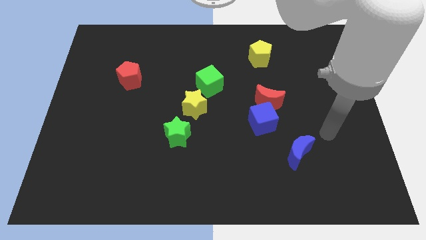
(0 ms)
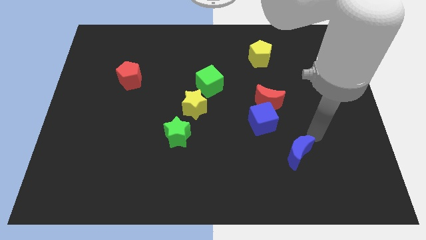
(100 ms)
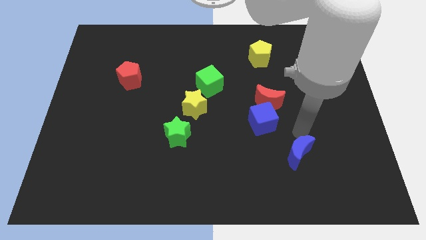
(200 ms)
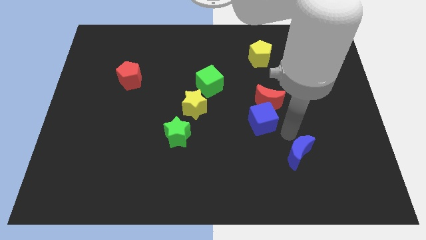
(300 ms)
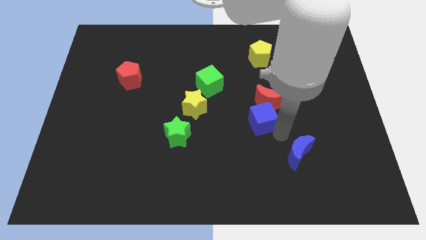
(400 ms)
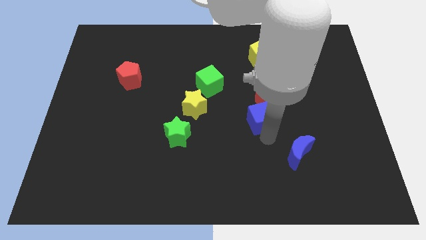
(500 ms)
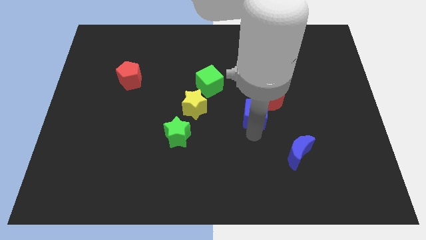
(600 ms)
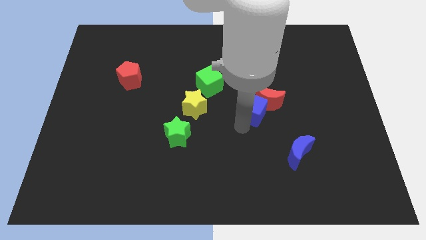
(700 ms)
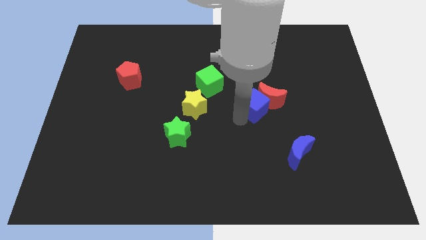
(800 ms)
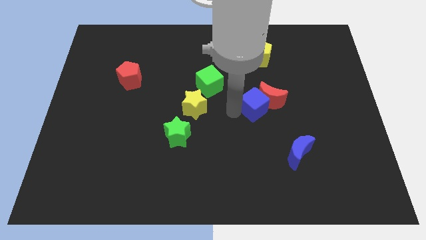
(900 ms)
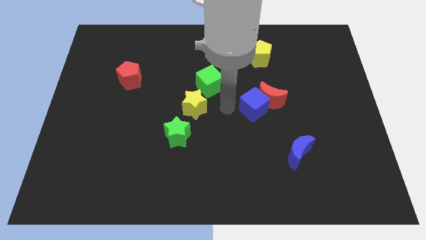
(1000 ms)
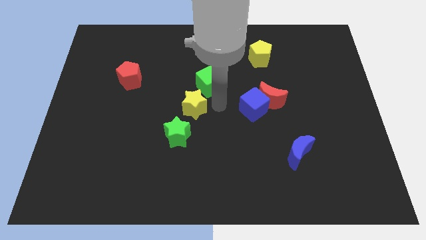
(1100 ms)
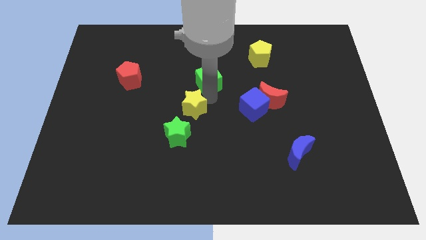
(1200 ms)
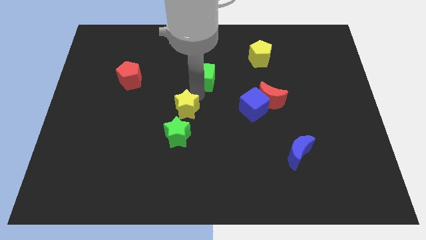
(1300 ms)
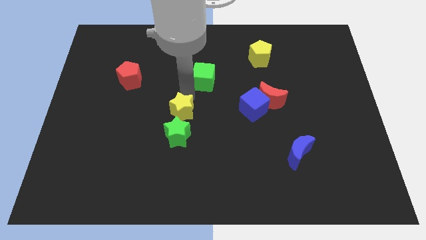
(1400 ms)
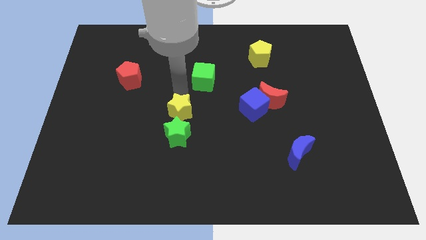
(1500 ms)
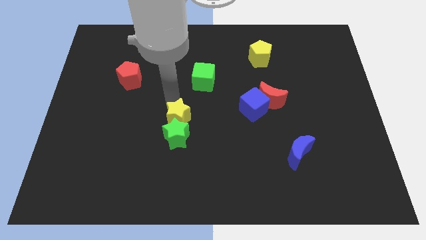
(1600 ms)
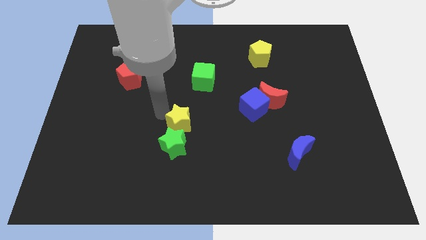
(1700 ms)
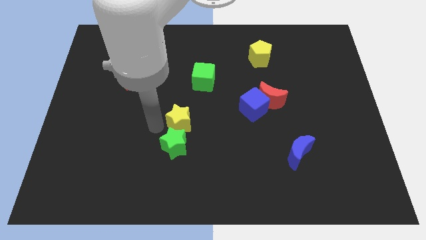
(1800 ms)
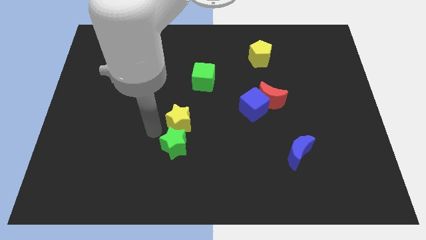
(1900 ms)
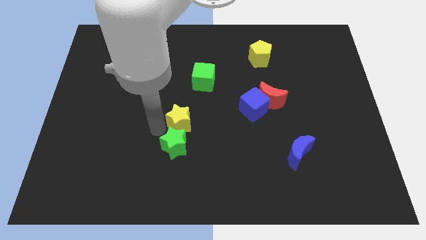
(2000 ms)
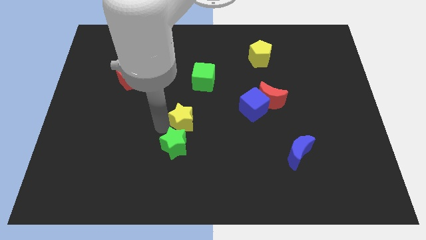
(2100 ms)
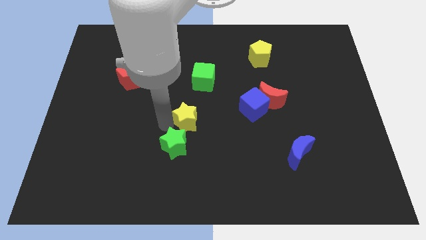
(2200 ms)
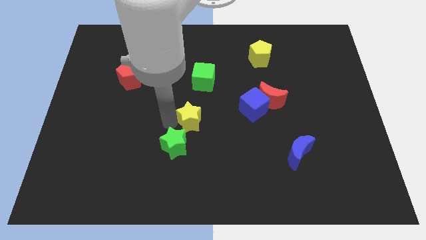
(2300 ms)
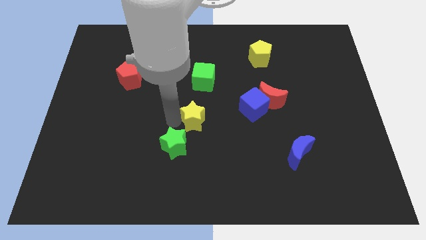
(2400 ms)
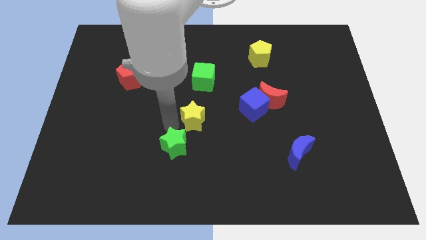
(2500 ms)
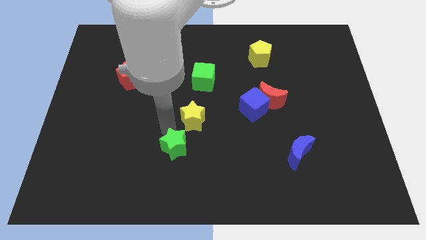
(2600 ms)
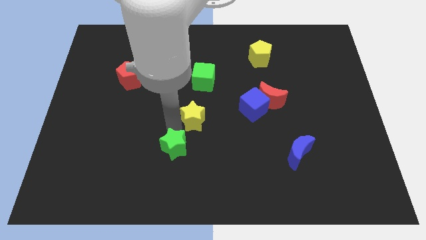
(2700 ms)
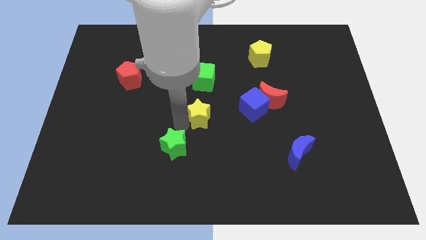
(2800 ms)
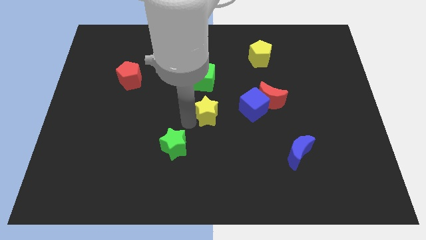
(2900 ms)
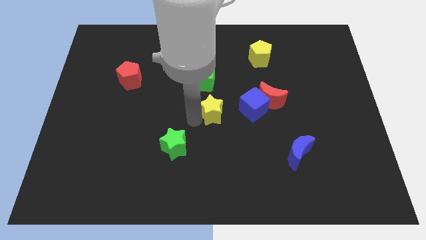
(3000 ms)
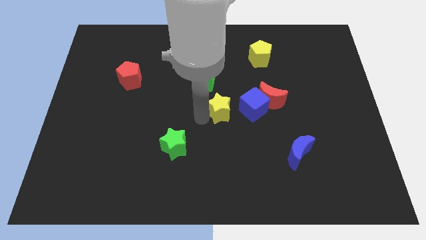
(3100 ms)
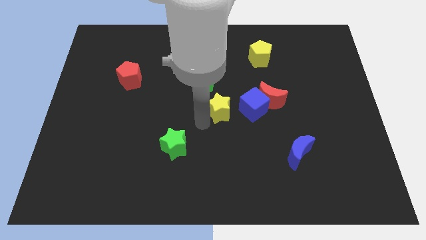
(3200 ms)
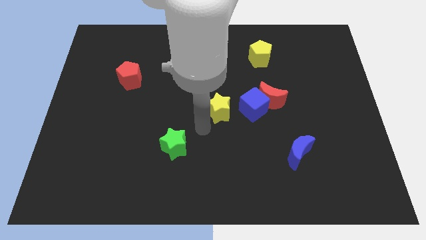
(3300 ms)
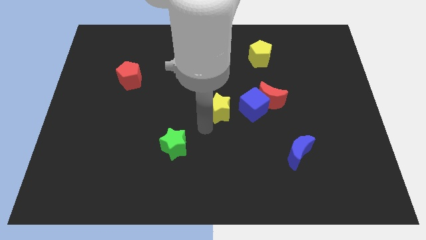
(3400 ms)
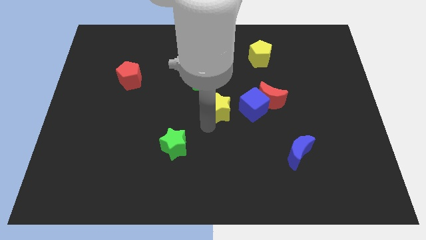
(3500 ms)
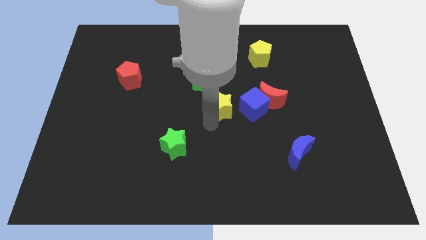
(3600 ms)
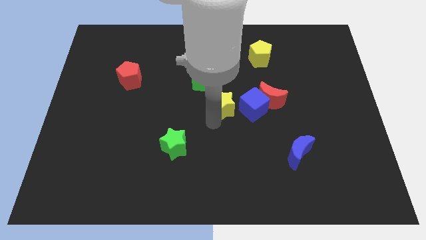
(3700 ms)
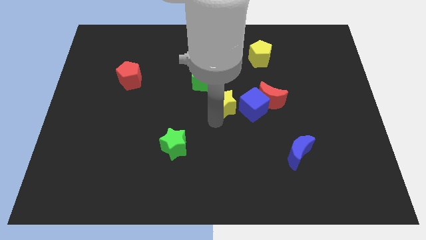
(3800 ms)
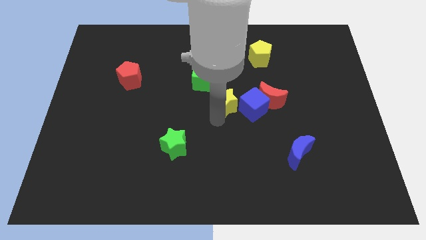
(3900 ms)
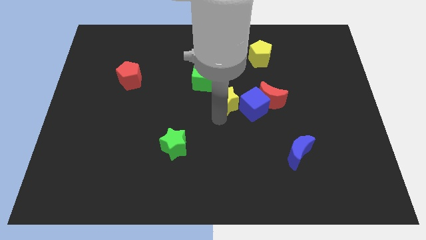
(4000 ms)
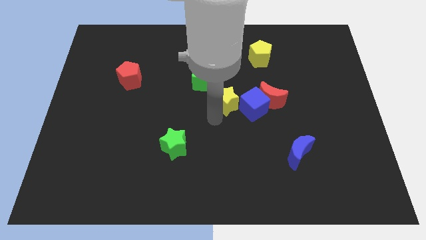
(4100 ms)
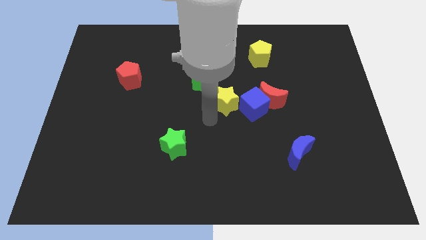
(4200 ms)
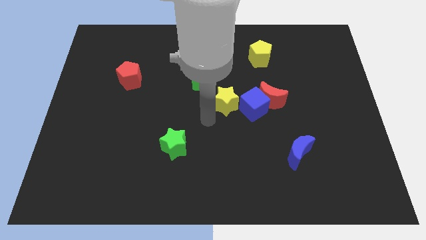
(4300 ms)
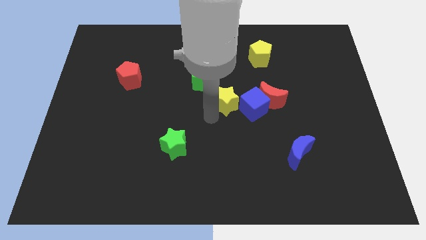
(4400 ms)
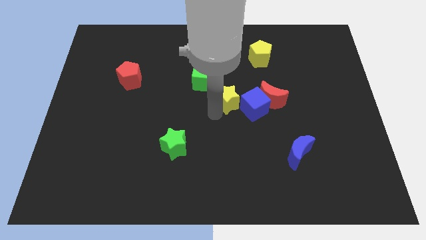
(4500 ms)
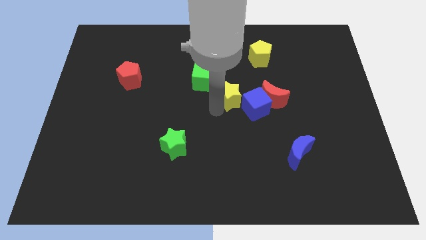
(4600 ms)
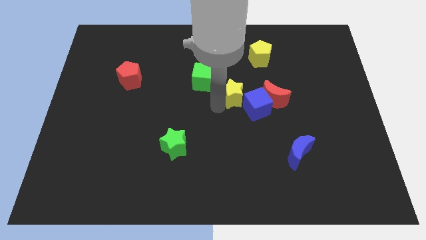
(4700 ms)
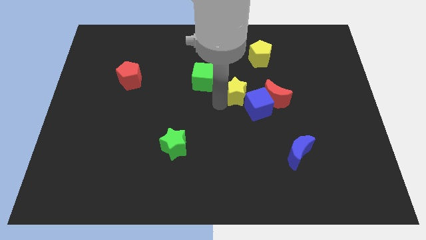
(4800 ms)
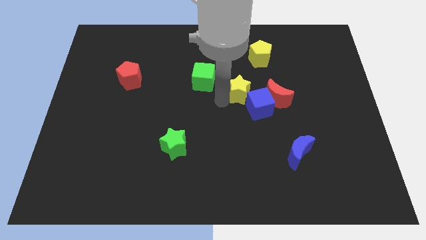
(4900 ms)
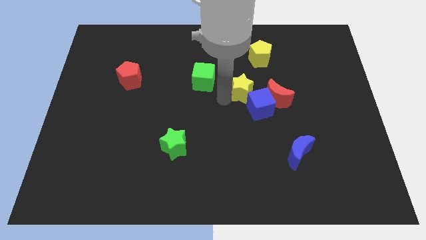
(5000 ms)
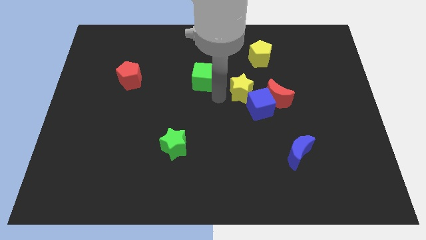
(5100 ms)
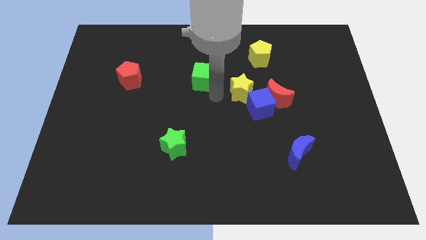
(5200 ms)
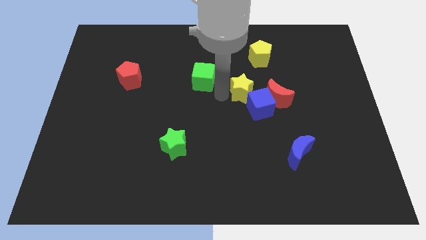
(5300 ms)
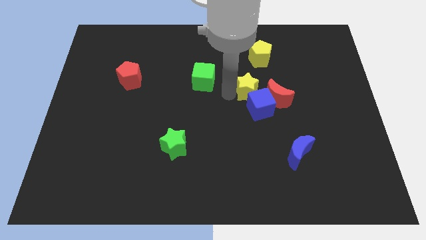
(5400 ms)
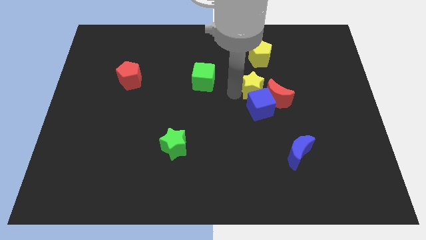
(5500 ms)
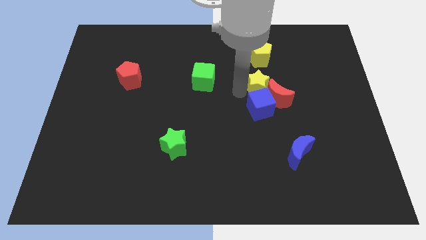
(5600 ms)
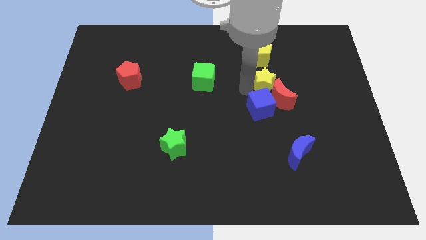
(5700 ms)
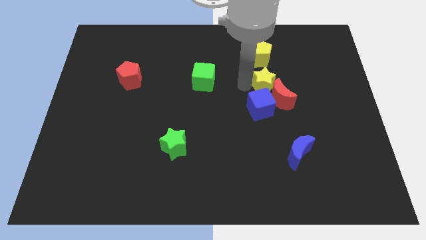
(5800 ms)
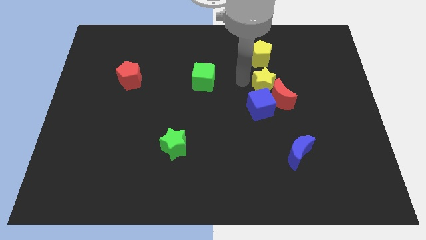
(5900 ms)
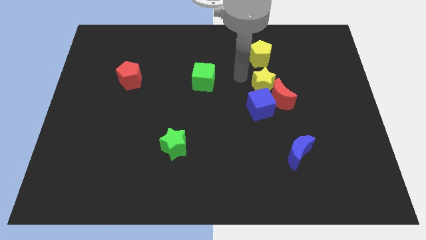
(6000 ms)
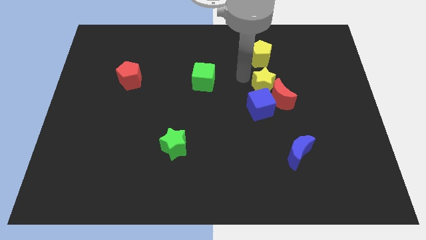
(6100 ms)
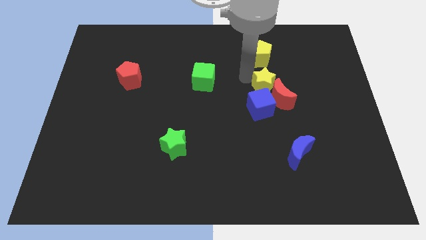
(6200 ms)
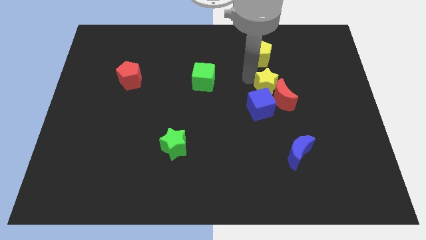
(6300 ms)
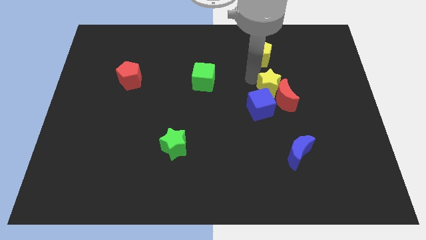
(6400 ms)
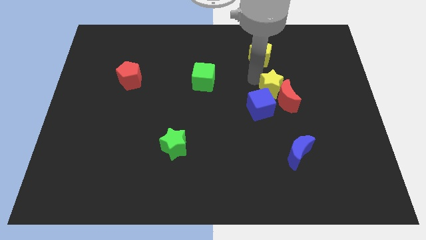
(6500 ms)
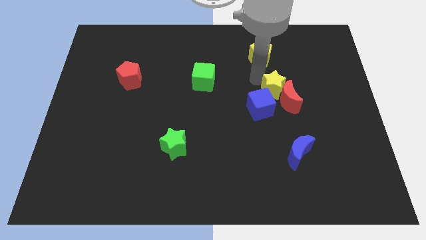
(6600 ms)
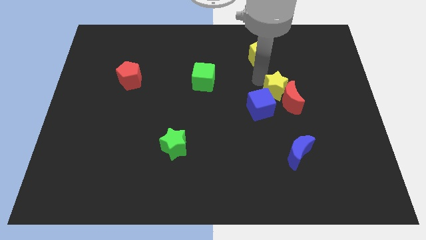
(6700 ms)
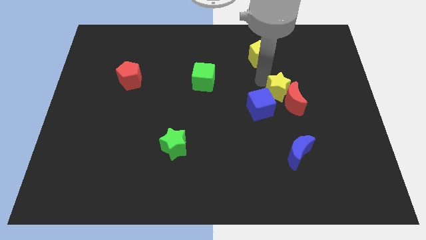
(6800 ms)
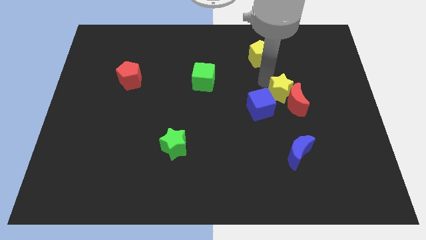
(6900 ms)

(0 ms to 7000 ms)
push the yellow star to the right

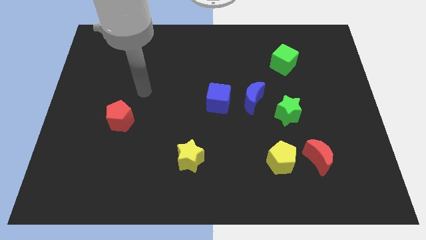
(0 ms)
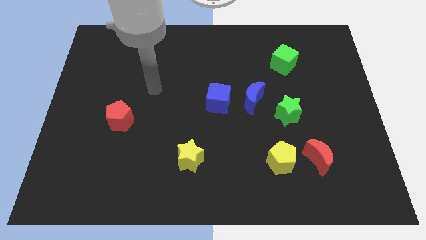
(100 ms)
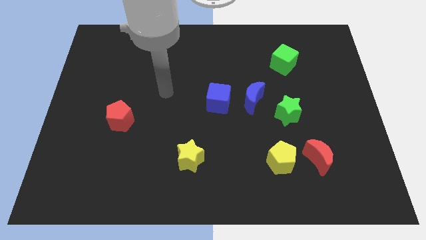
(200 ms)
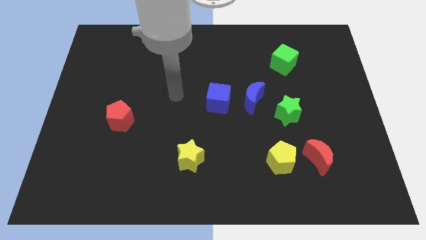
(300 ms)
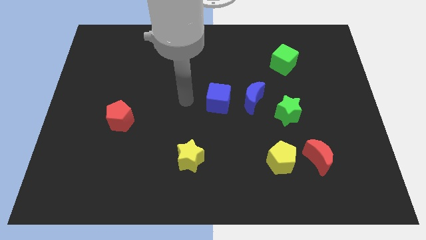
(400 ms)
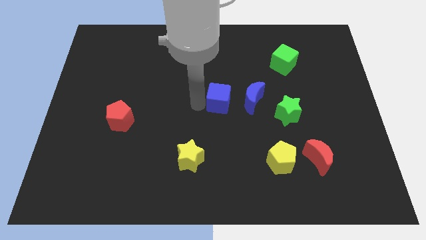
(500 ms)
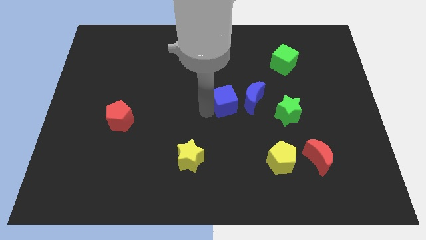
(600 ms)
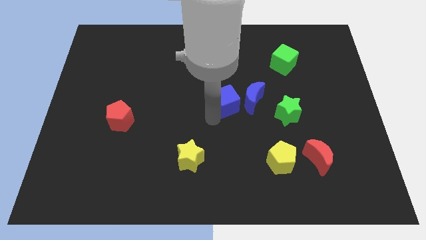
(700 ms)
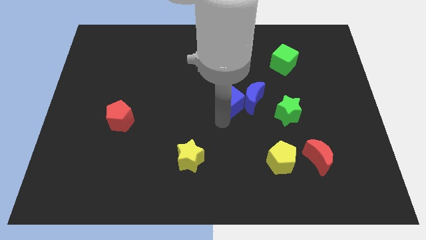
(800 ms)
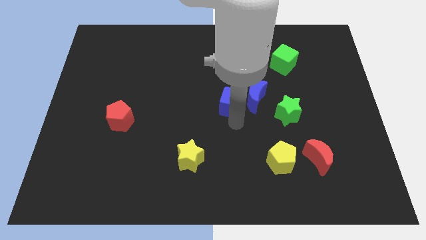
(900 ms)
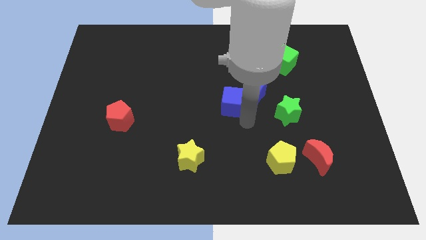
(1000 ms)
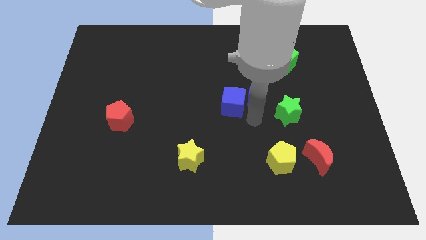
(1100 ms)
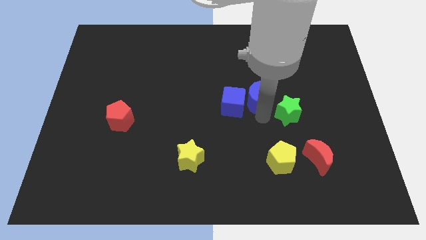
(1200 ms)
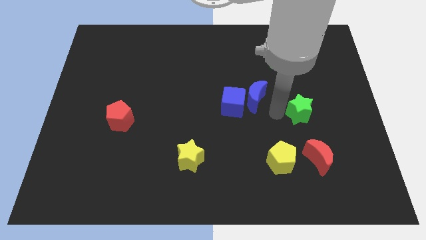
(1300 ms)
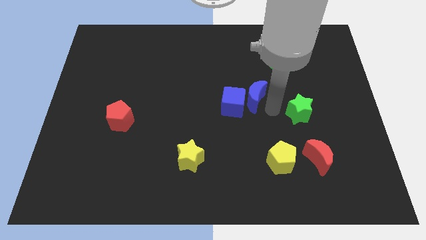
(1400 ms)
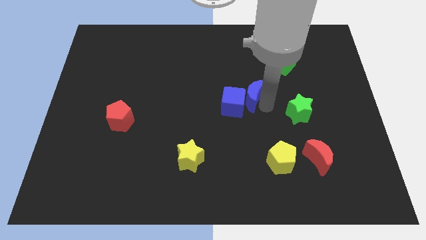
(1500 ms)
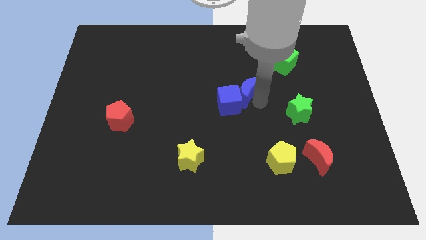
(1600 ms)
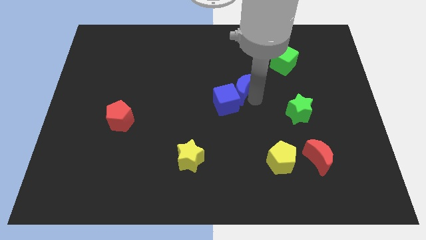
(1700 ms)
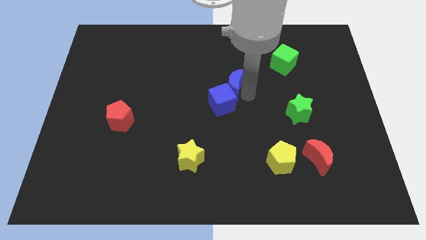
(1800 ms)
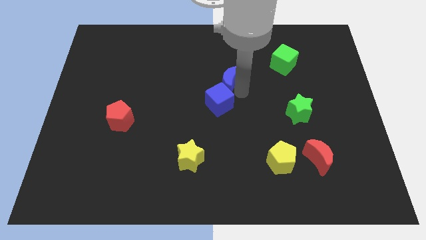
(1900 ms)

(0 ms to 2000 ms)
push the blue moon diagonally up and to the left a little
